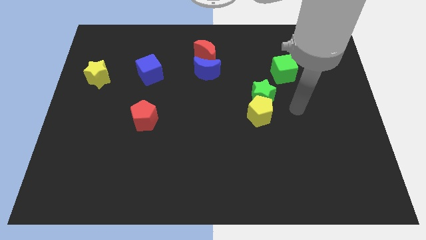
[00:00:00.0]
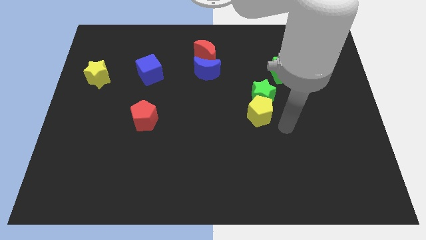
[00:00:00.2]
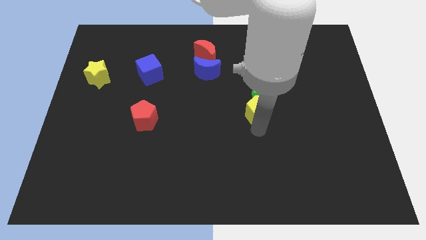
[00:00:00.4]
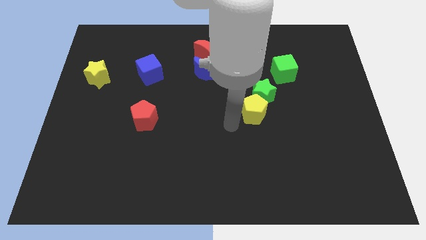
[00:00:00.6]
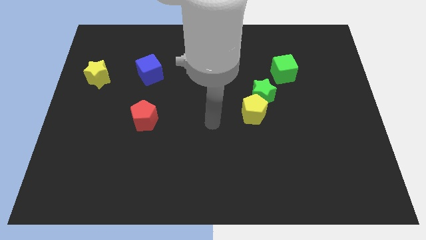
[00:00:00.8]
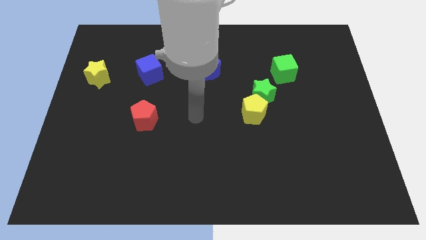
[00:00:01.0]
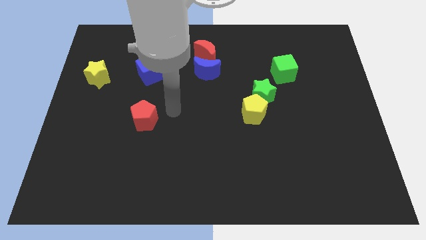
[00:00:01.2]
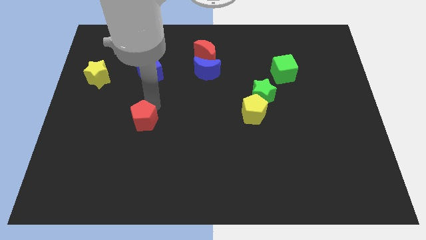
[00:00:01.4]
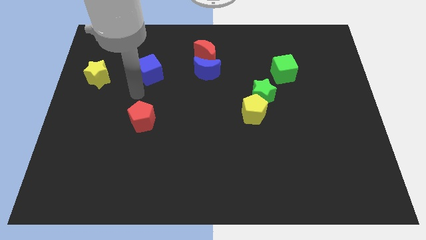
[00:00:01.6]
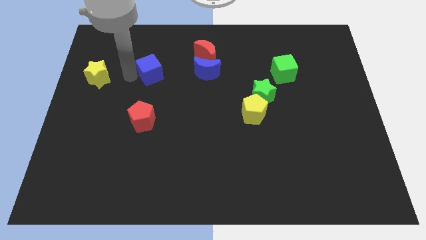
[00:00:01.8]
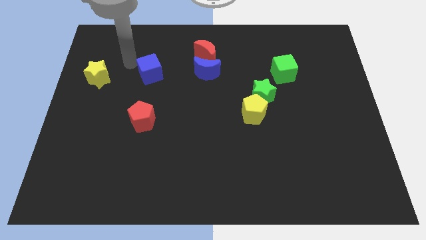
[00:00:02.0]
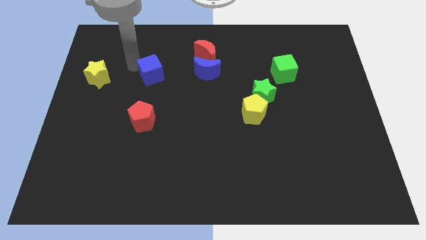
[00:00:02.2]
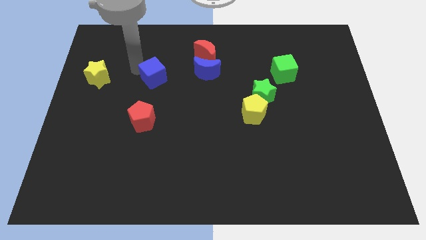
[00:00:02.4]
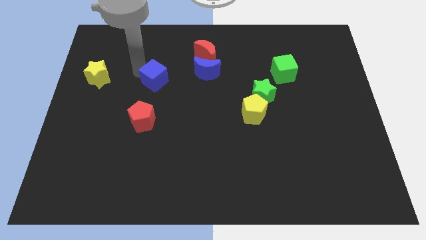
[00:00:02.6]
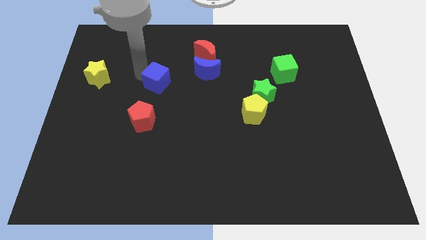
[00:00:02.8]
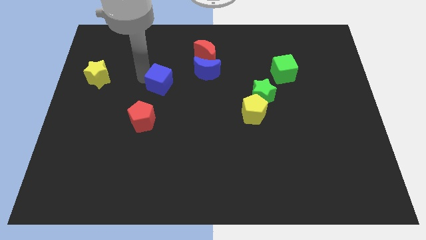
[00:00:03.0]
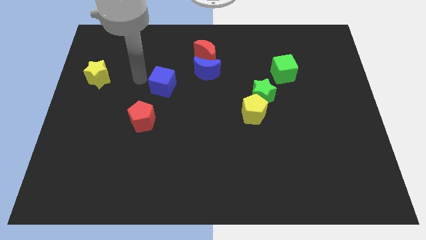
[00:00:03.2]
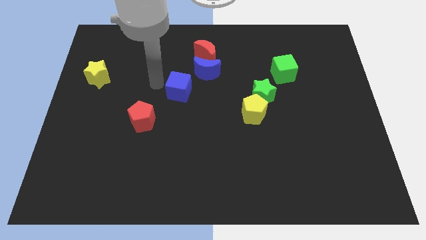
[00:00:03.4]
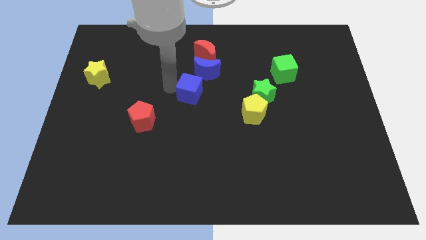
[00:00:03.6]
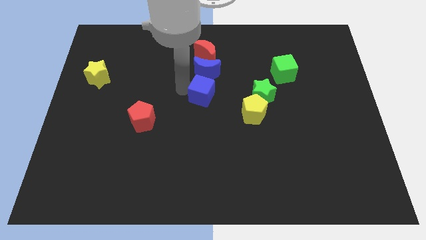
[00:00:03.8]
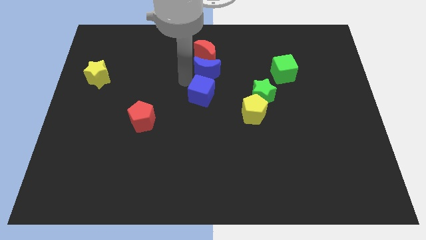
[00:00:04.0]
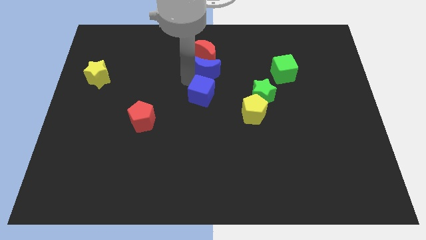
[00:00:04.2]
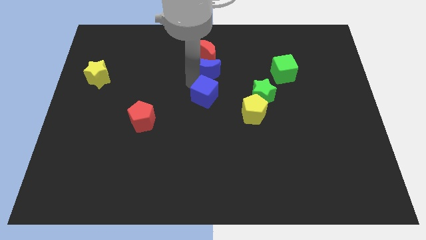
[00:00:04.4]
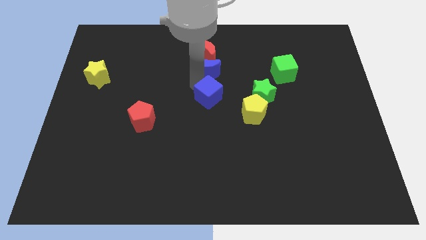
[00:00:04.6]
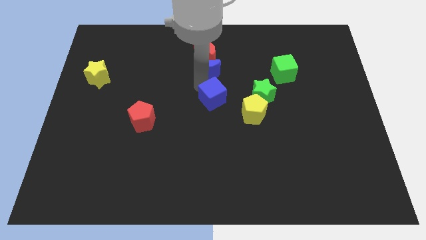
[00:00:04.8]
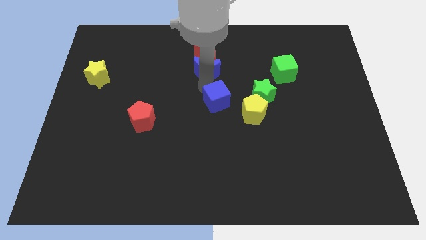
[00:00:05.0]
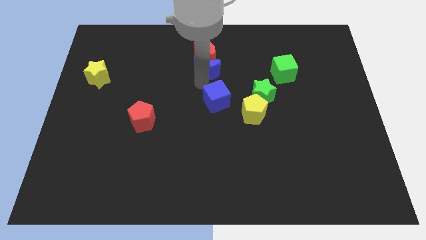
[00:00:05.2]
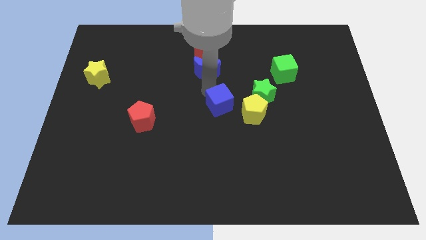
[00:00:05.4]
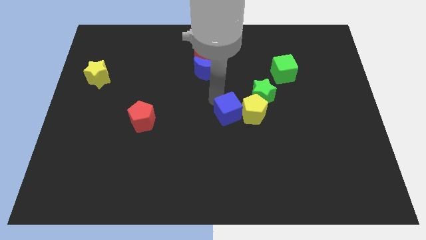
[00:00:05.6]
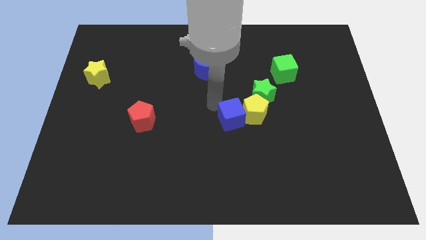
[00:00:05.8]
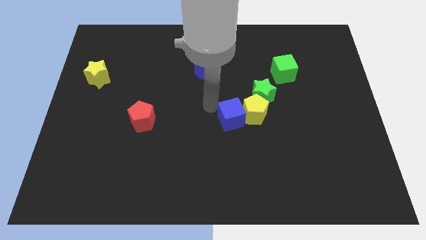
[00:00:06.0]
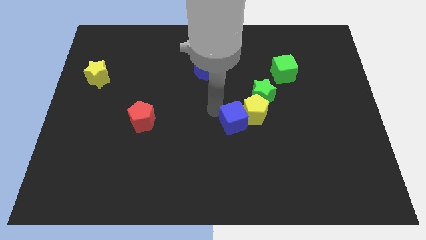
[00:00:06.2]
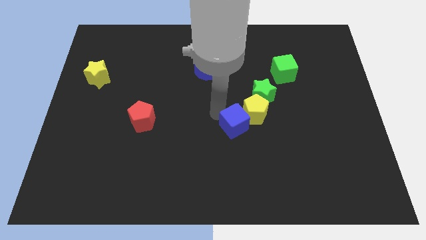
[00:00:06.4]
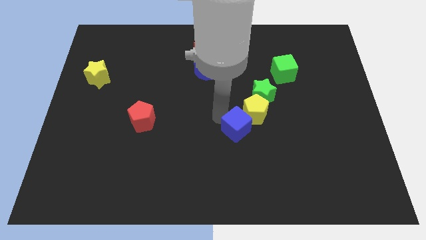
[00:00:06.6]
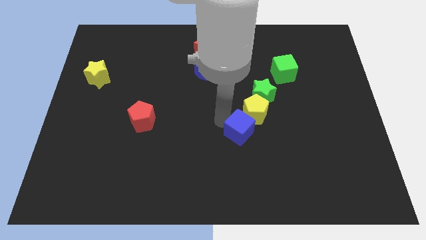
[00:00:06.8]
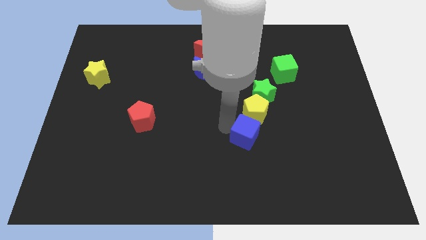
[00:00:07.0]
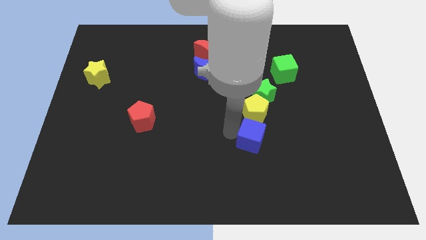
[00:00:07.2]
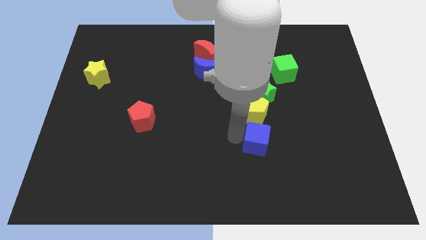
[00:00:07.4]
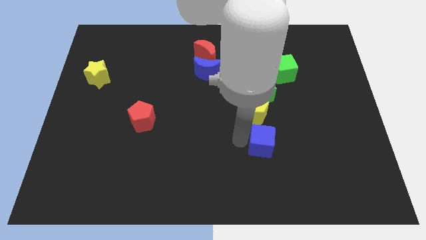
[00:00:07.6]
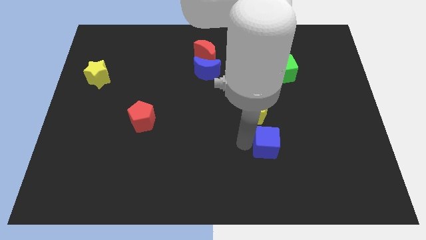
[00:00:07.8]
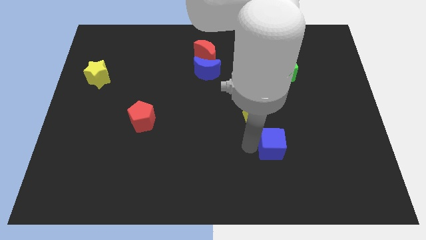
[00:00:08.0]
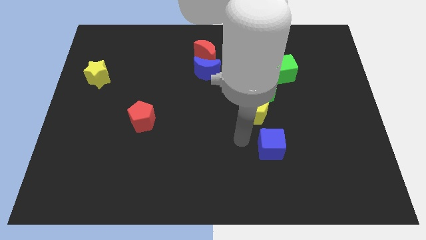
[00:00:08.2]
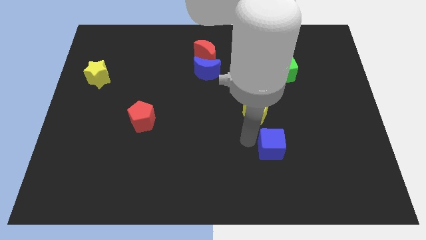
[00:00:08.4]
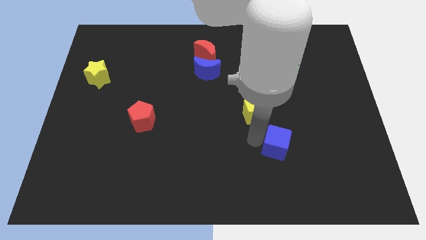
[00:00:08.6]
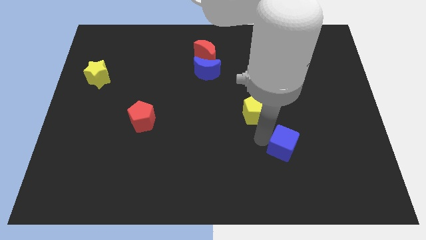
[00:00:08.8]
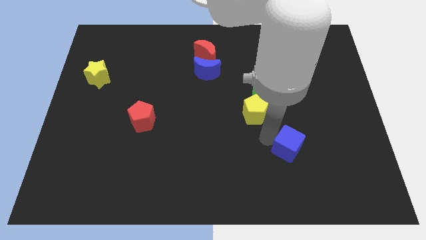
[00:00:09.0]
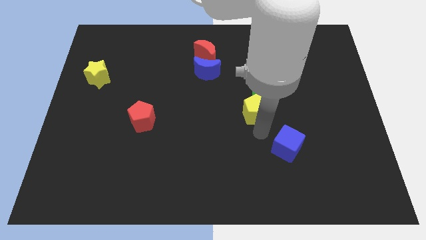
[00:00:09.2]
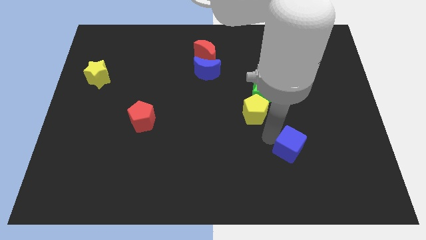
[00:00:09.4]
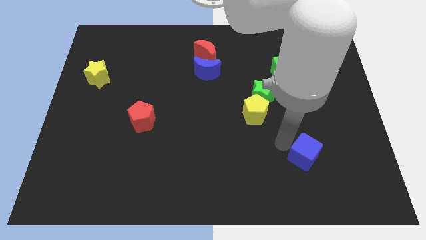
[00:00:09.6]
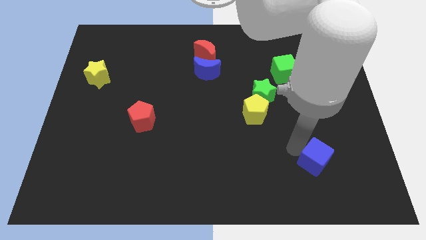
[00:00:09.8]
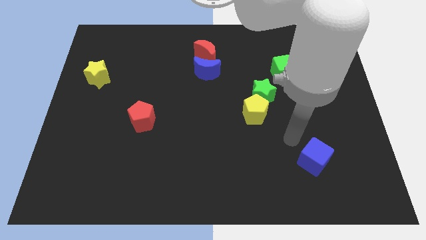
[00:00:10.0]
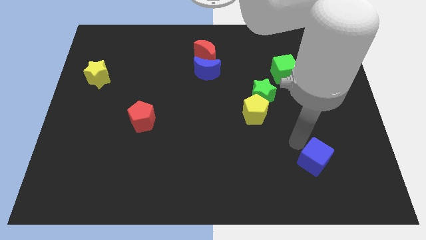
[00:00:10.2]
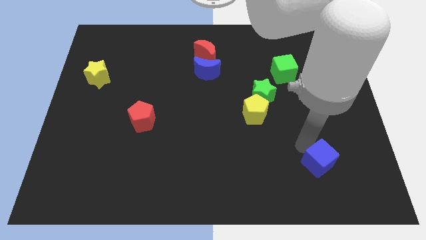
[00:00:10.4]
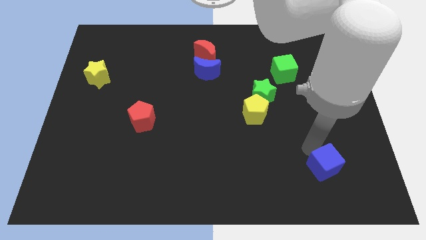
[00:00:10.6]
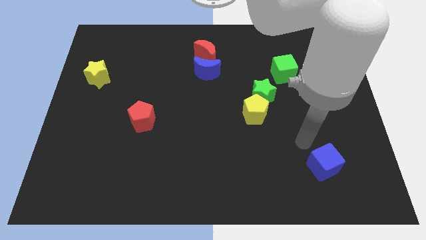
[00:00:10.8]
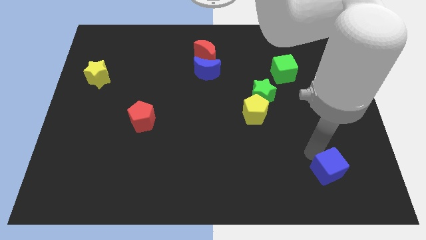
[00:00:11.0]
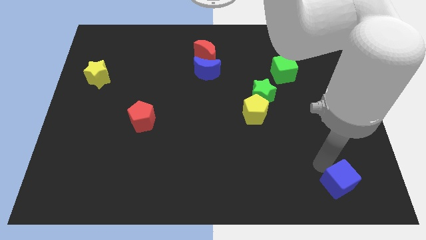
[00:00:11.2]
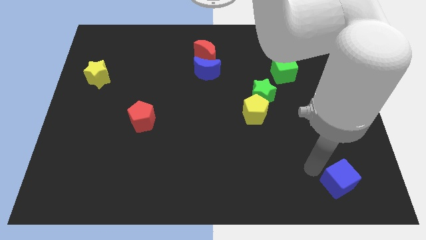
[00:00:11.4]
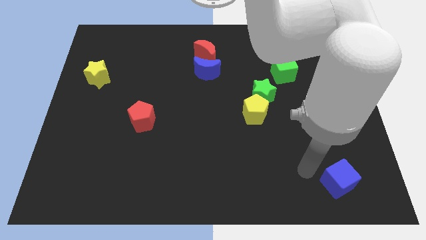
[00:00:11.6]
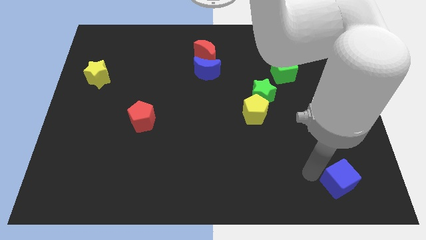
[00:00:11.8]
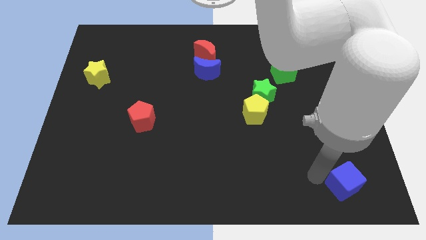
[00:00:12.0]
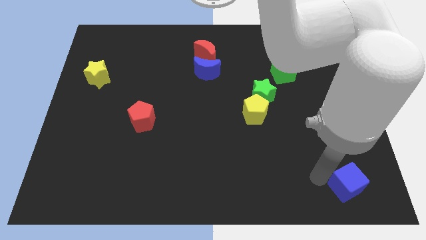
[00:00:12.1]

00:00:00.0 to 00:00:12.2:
push the blue cube to the bottom right of the board

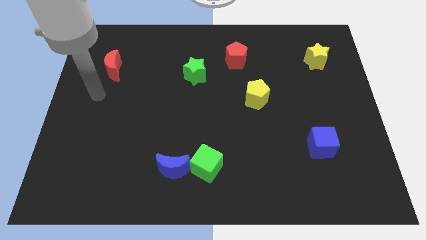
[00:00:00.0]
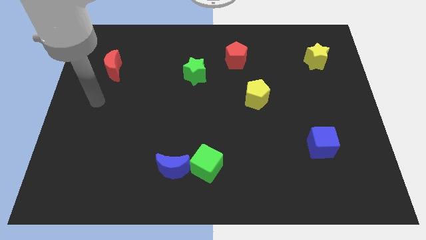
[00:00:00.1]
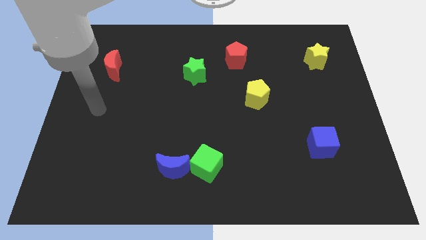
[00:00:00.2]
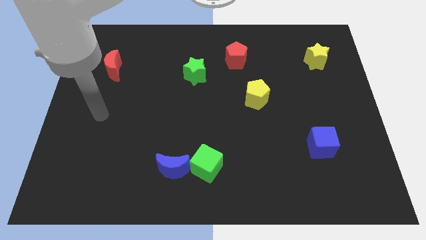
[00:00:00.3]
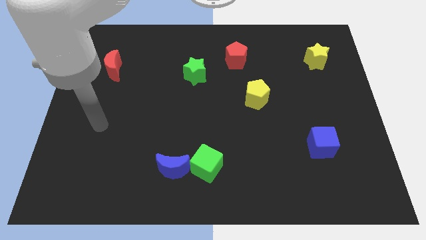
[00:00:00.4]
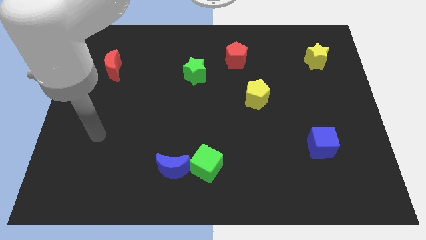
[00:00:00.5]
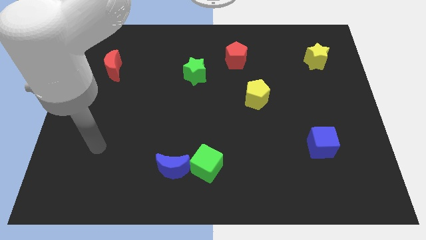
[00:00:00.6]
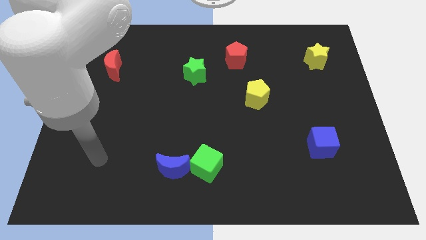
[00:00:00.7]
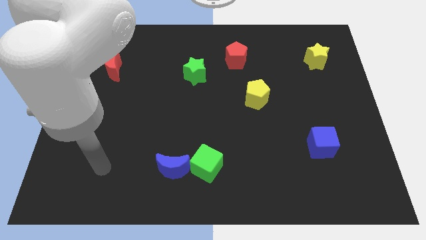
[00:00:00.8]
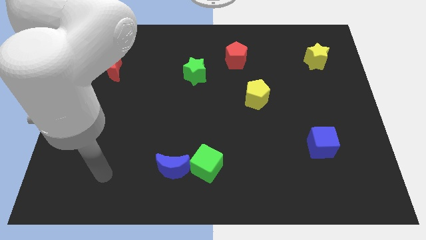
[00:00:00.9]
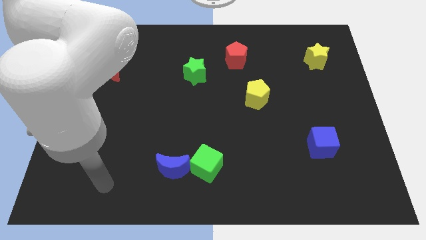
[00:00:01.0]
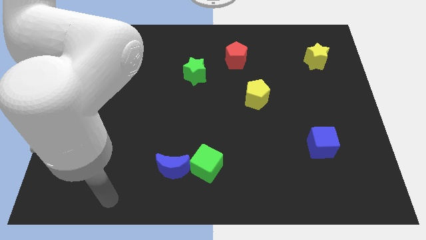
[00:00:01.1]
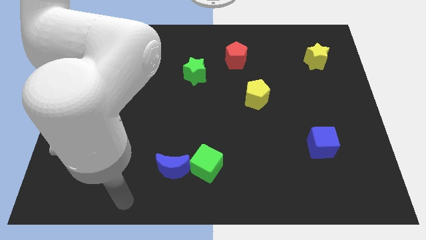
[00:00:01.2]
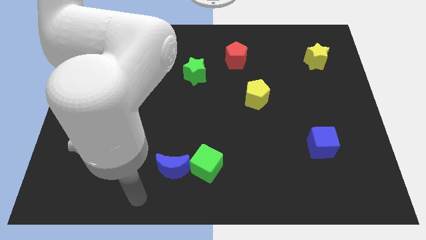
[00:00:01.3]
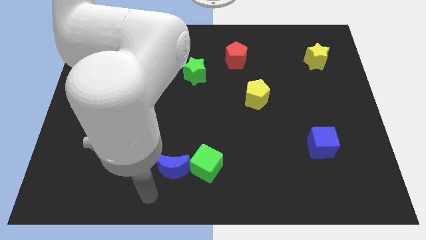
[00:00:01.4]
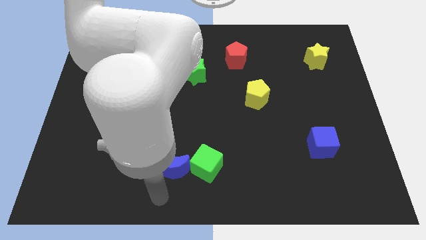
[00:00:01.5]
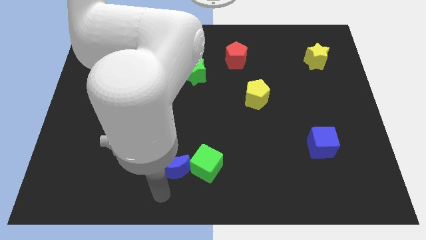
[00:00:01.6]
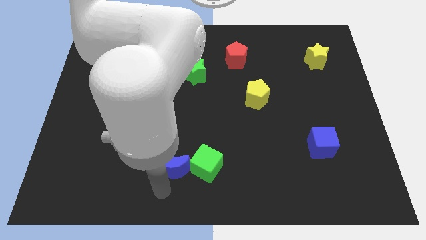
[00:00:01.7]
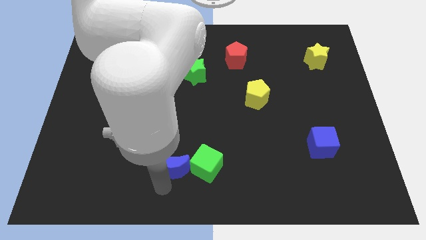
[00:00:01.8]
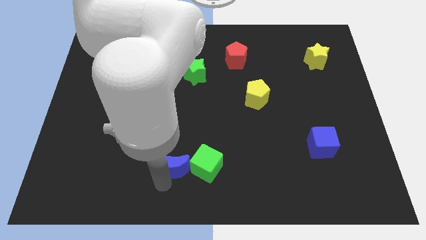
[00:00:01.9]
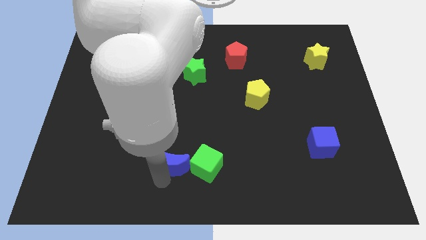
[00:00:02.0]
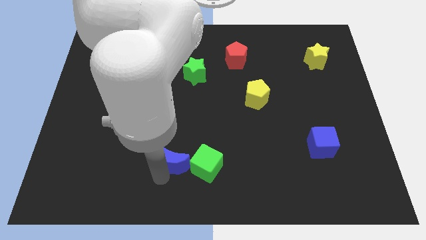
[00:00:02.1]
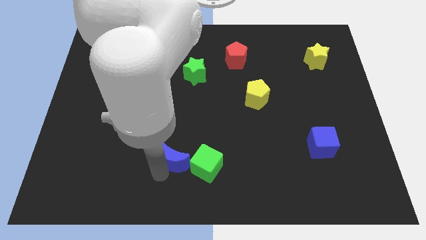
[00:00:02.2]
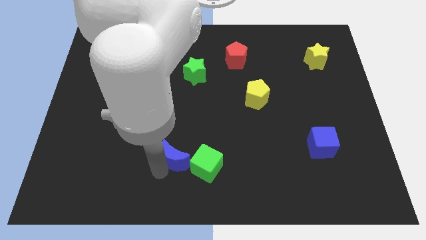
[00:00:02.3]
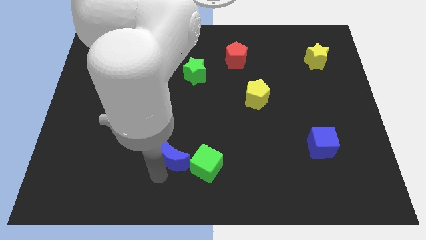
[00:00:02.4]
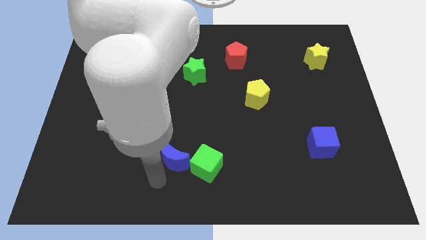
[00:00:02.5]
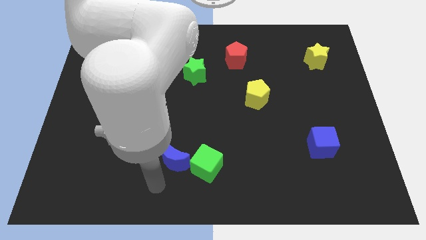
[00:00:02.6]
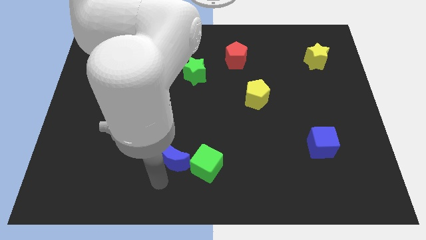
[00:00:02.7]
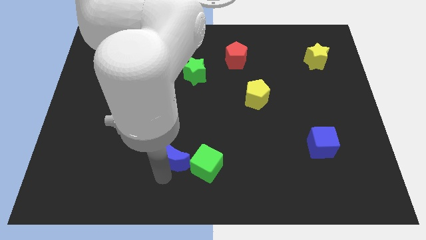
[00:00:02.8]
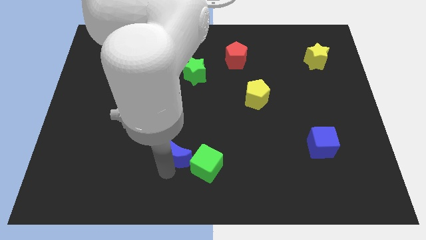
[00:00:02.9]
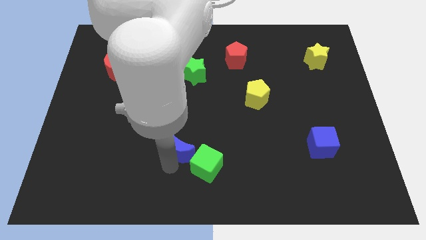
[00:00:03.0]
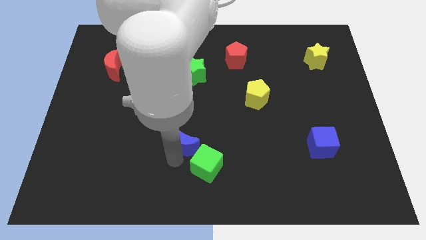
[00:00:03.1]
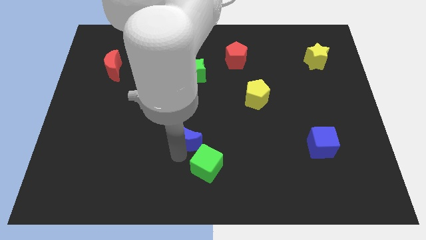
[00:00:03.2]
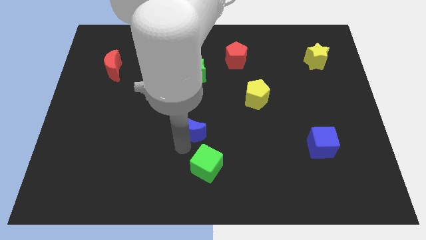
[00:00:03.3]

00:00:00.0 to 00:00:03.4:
move the blue moon to the center
